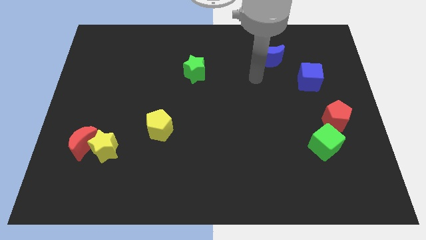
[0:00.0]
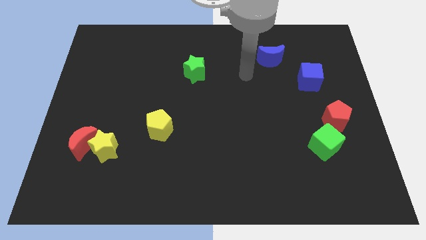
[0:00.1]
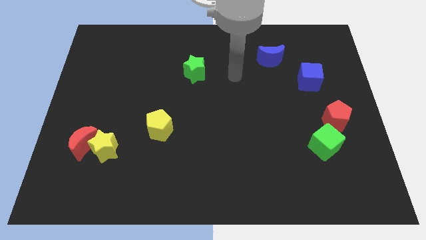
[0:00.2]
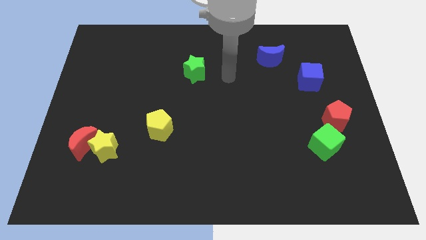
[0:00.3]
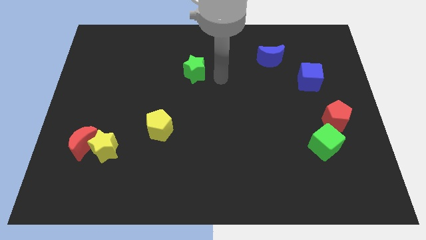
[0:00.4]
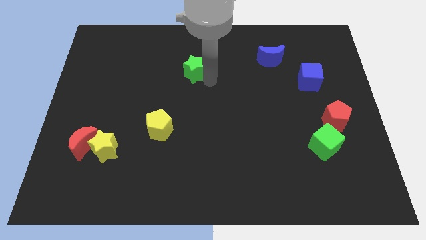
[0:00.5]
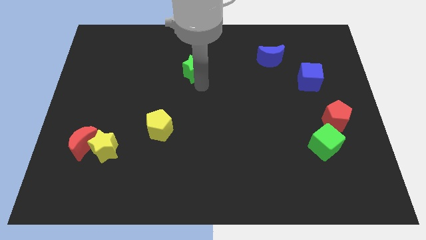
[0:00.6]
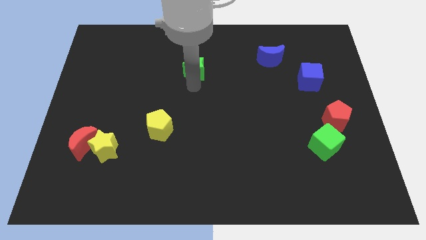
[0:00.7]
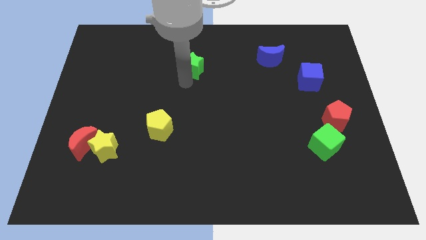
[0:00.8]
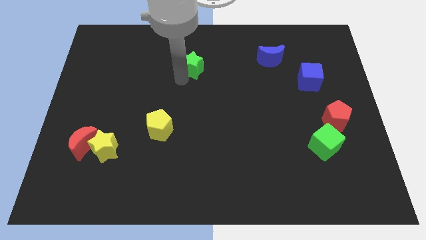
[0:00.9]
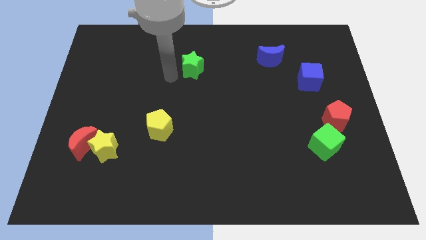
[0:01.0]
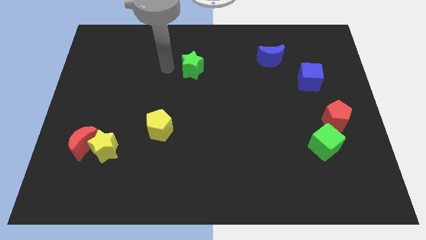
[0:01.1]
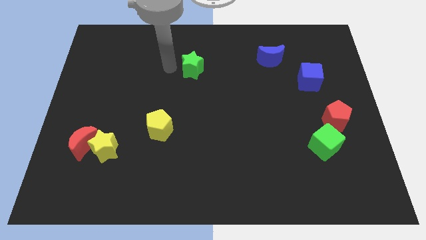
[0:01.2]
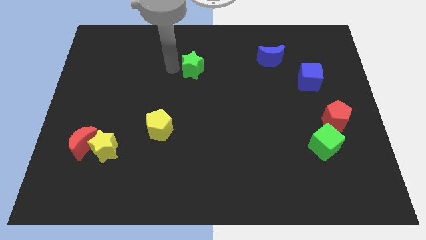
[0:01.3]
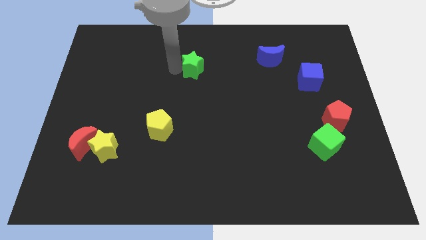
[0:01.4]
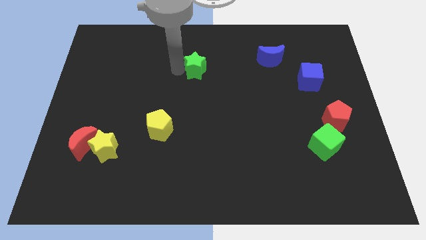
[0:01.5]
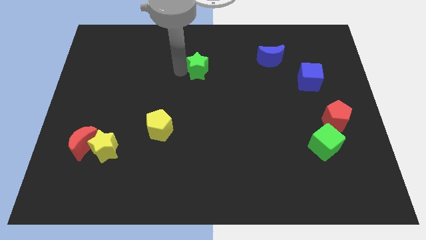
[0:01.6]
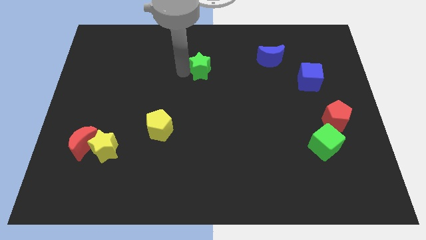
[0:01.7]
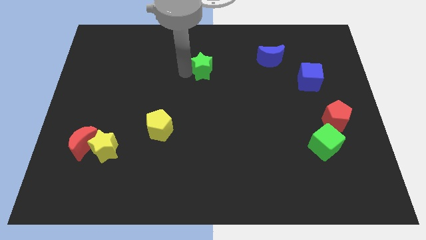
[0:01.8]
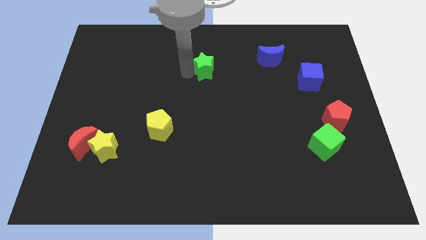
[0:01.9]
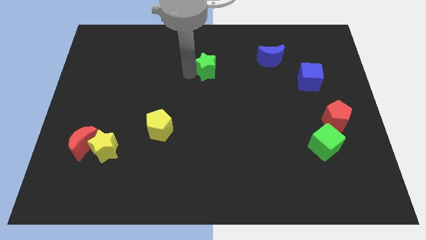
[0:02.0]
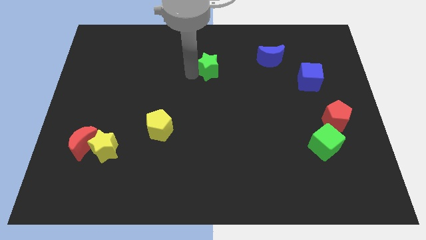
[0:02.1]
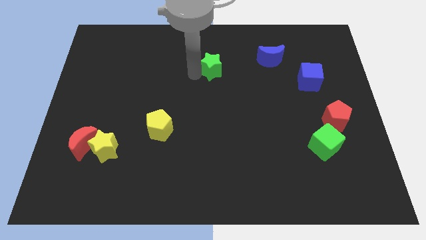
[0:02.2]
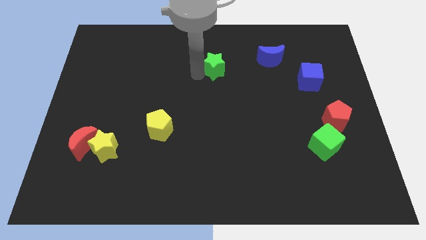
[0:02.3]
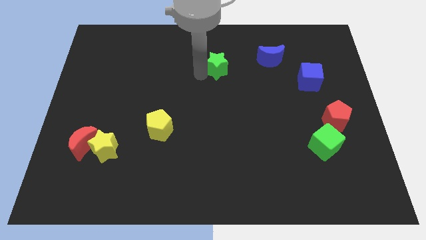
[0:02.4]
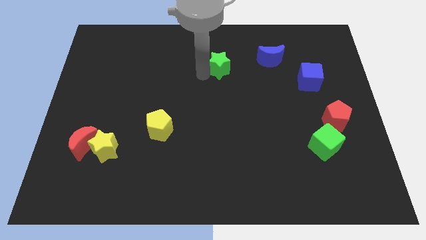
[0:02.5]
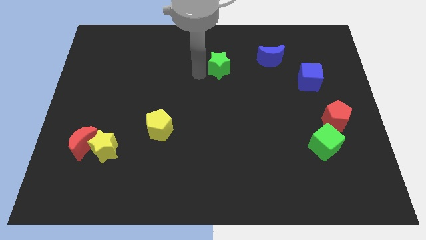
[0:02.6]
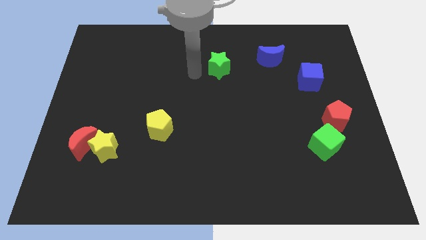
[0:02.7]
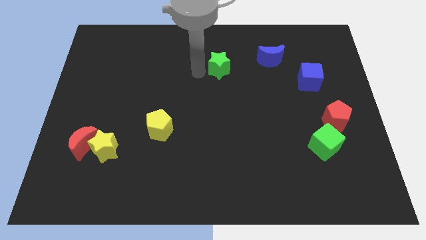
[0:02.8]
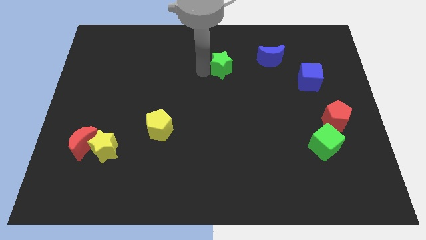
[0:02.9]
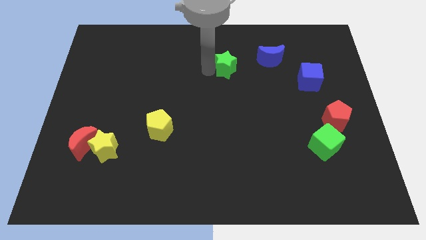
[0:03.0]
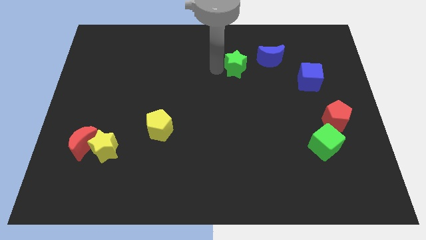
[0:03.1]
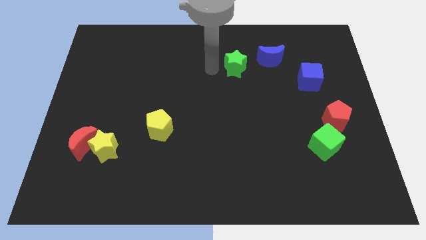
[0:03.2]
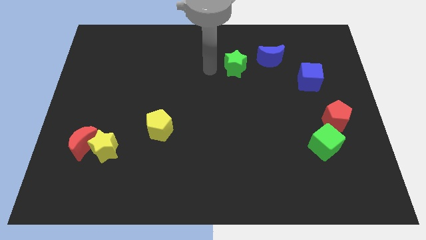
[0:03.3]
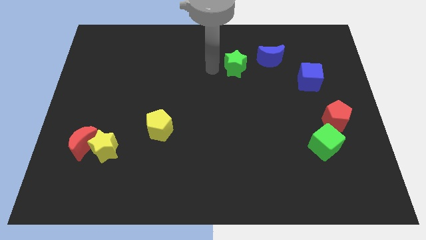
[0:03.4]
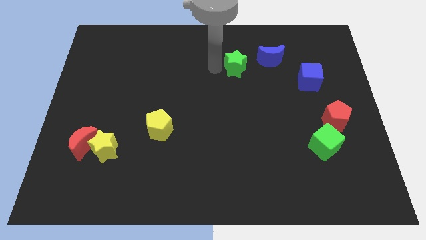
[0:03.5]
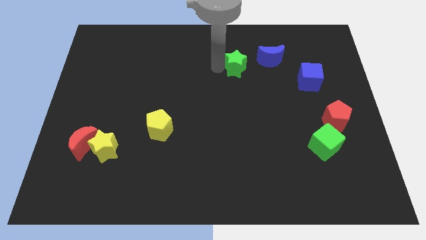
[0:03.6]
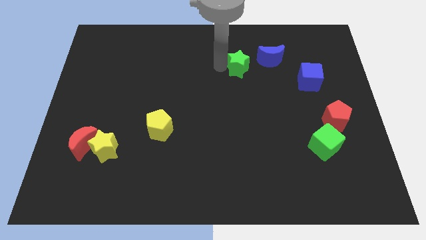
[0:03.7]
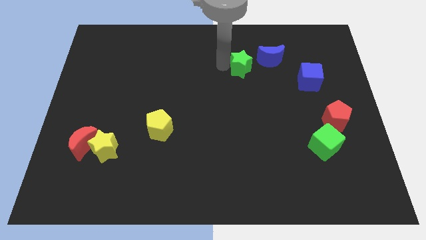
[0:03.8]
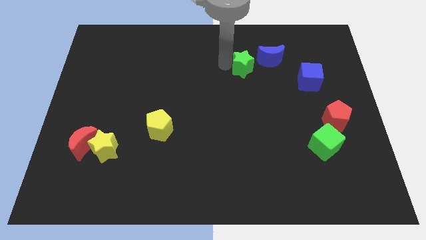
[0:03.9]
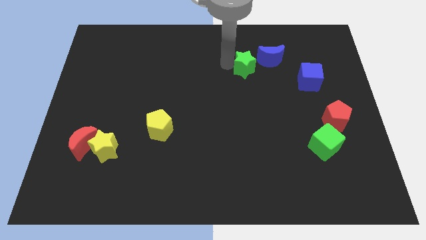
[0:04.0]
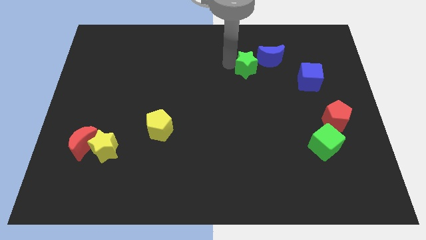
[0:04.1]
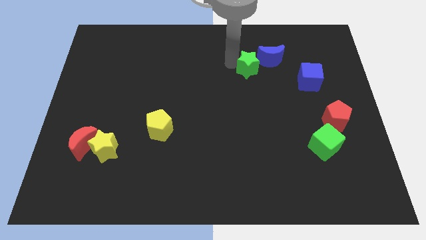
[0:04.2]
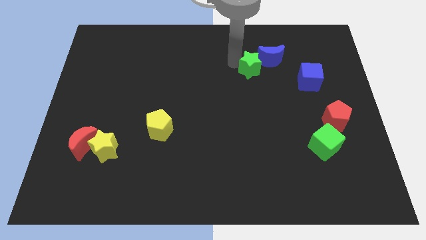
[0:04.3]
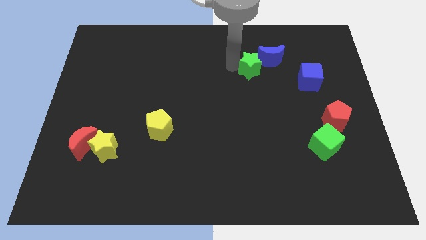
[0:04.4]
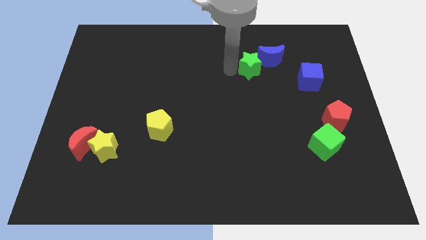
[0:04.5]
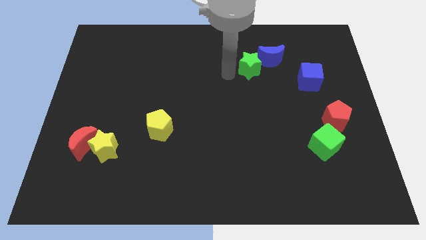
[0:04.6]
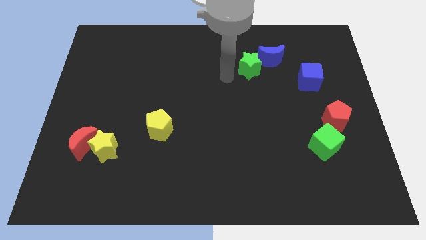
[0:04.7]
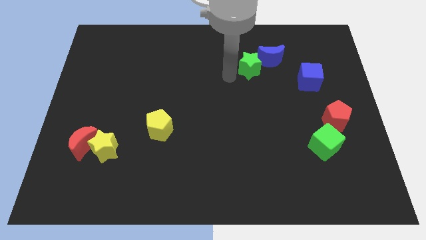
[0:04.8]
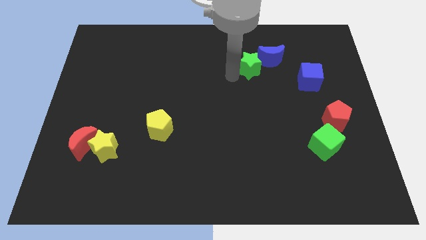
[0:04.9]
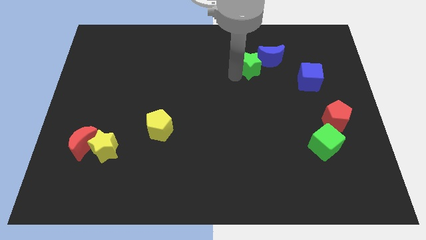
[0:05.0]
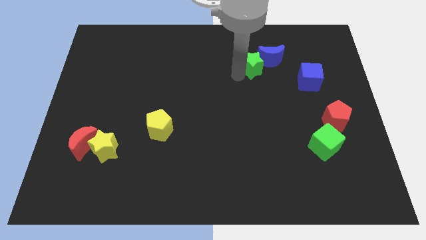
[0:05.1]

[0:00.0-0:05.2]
slide the green star next to the blue moon

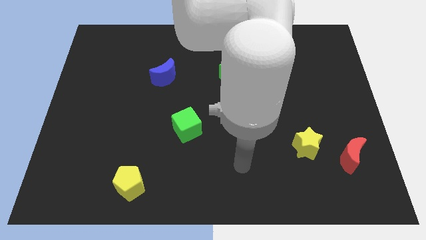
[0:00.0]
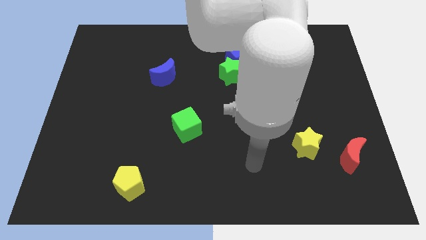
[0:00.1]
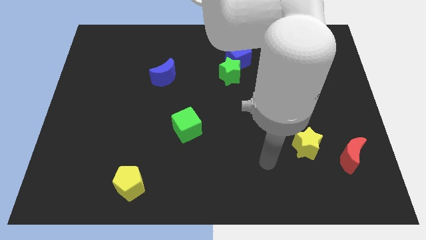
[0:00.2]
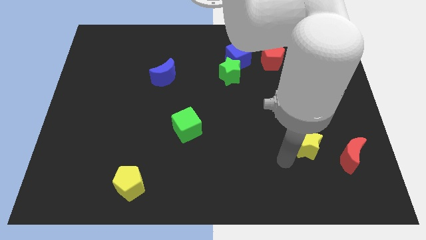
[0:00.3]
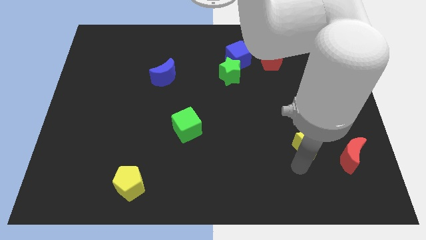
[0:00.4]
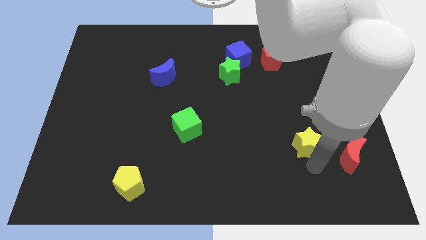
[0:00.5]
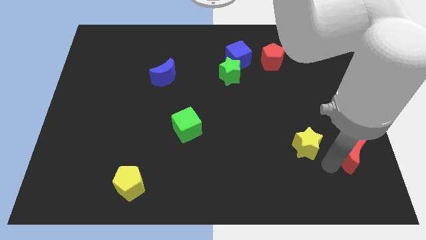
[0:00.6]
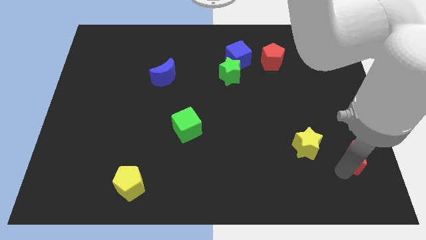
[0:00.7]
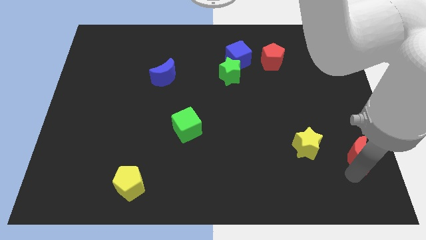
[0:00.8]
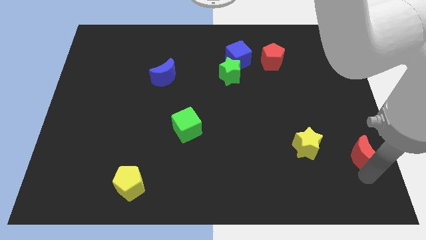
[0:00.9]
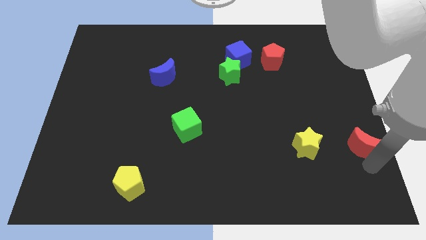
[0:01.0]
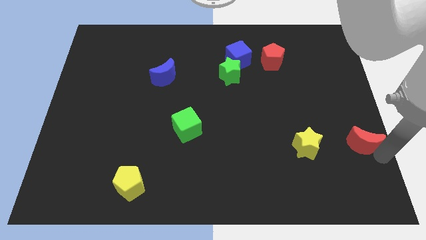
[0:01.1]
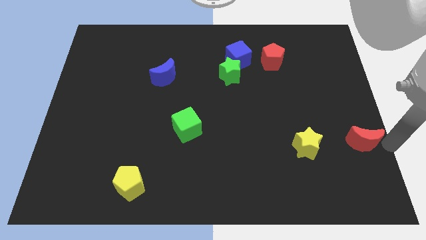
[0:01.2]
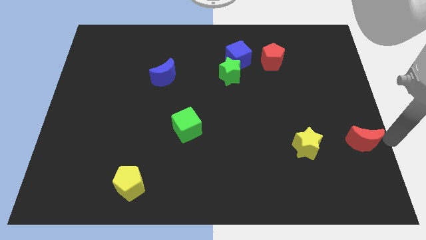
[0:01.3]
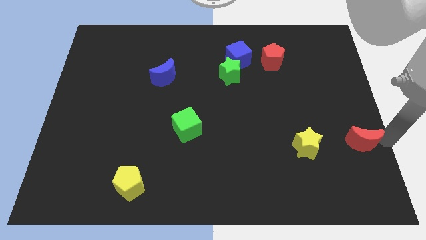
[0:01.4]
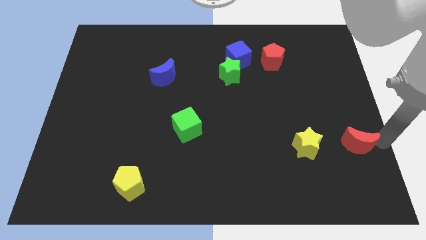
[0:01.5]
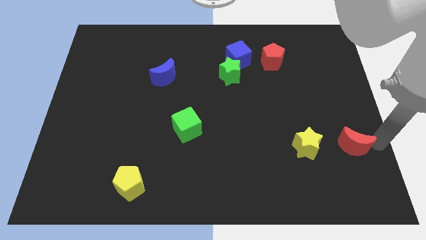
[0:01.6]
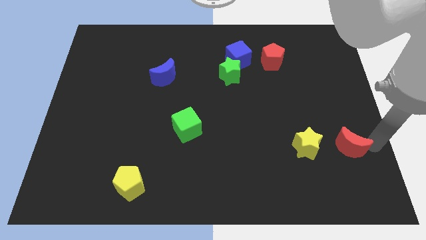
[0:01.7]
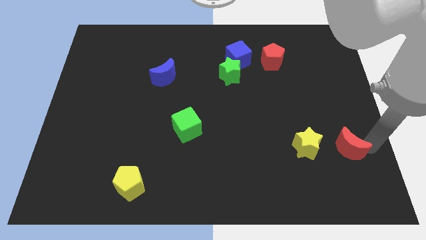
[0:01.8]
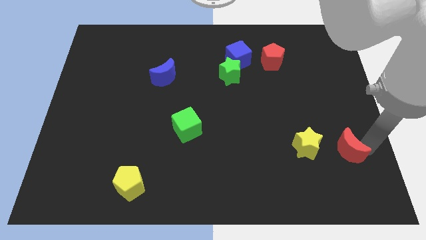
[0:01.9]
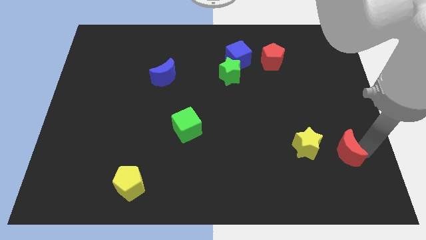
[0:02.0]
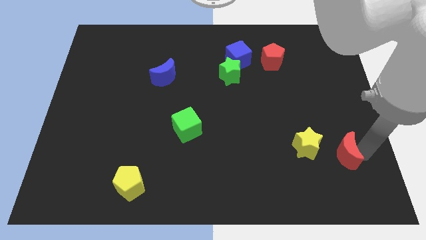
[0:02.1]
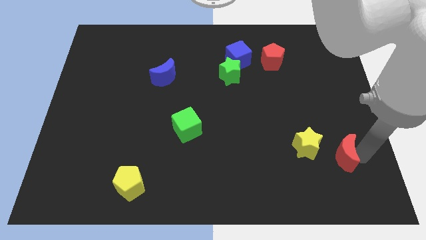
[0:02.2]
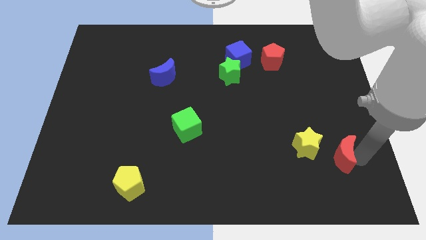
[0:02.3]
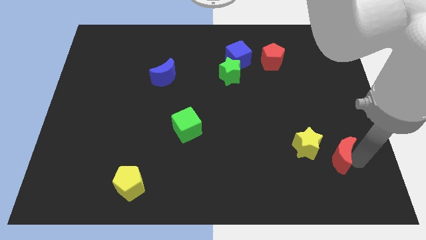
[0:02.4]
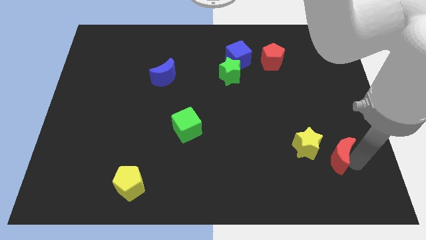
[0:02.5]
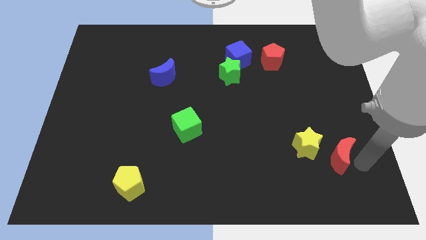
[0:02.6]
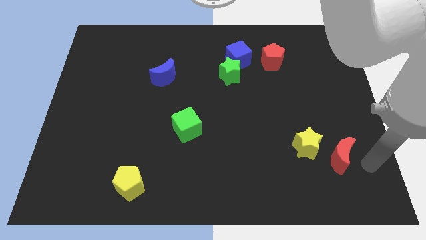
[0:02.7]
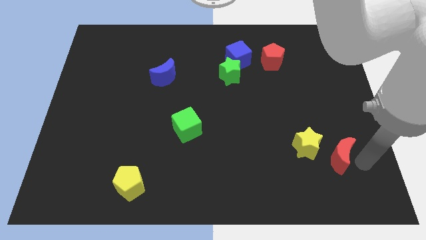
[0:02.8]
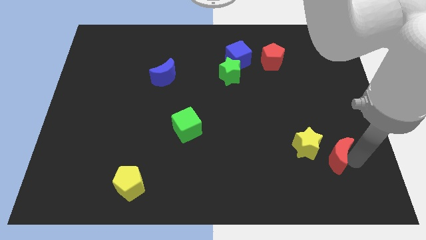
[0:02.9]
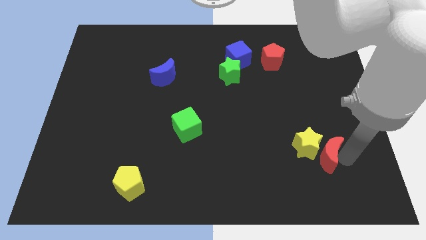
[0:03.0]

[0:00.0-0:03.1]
move the red moon close to the yellow star
